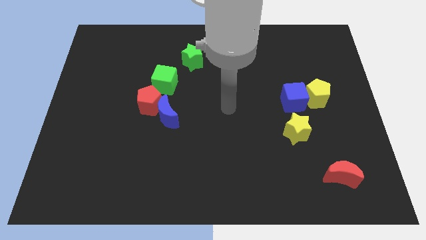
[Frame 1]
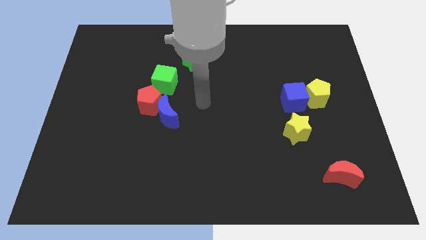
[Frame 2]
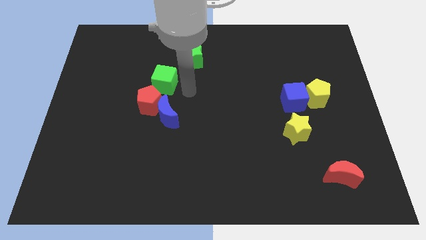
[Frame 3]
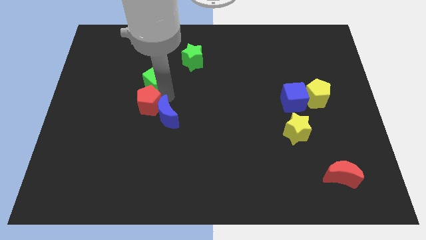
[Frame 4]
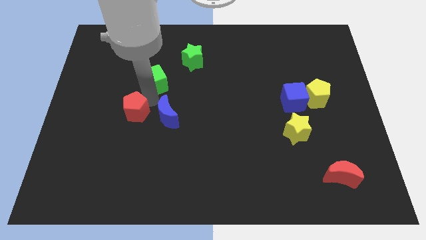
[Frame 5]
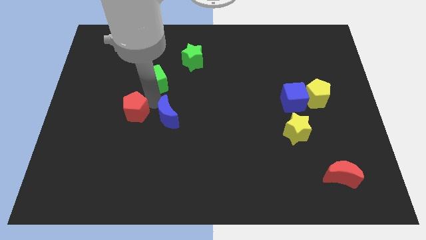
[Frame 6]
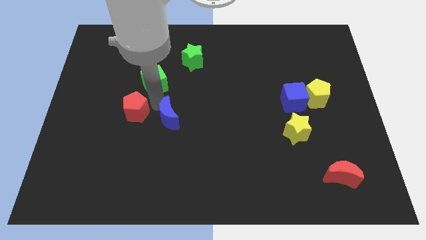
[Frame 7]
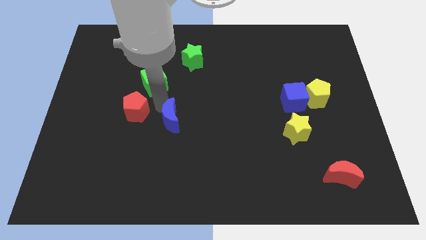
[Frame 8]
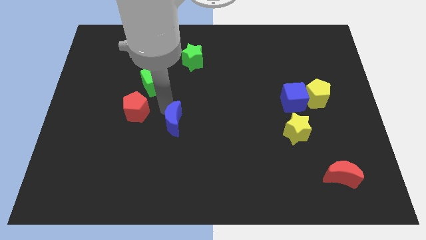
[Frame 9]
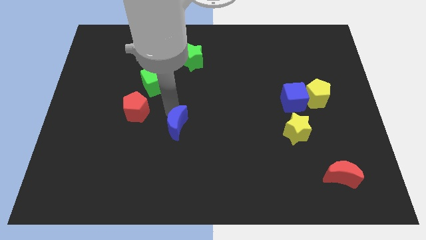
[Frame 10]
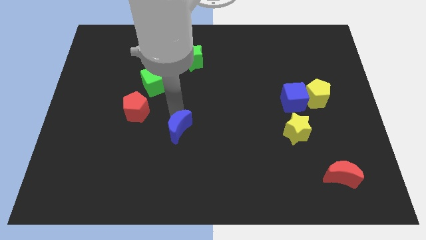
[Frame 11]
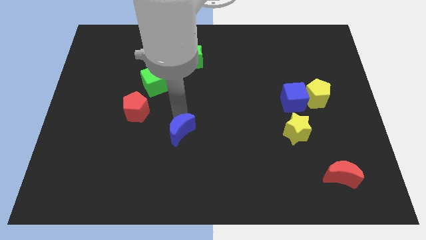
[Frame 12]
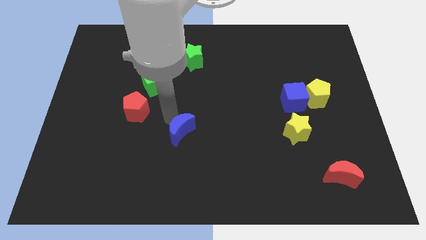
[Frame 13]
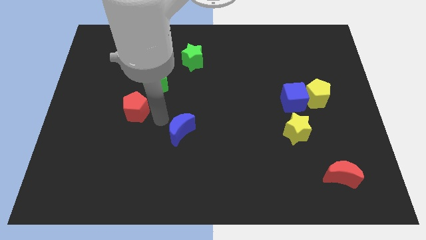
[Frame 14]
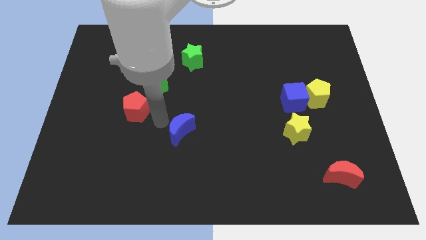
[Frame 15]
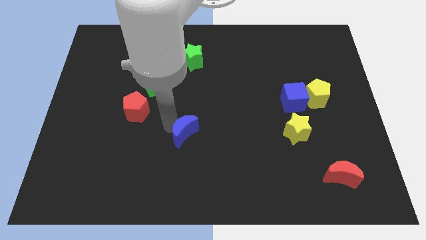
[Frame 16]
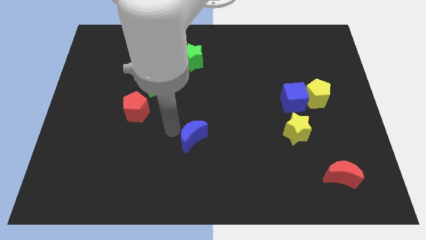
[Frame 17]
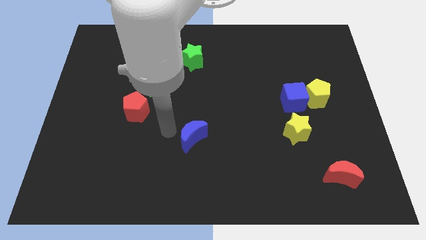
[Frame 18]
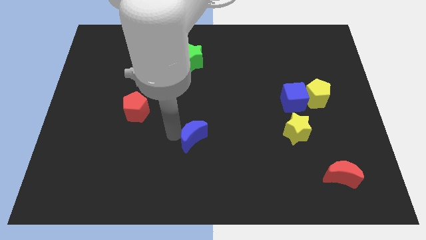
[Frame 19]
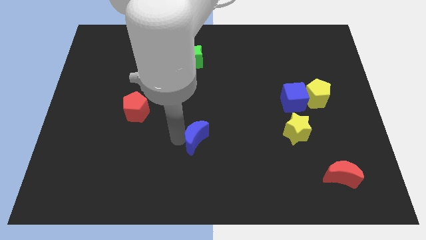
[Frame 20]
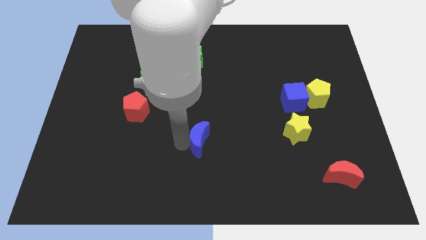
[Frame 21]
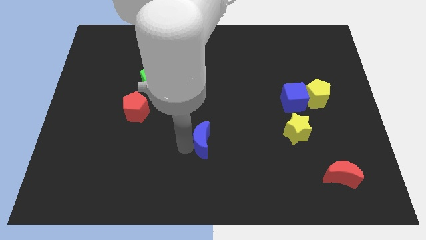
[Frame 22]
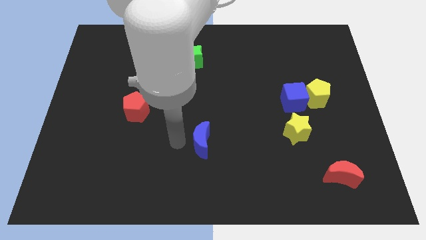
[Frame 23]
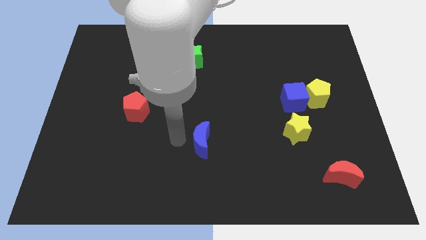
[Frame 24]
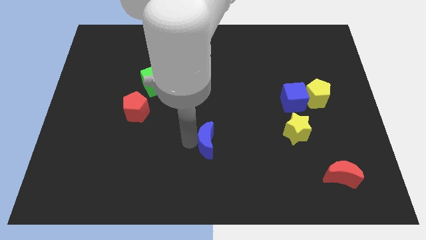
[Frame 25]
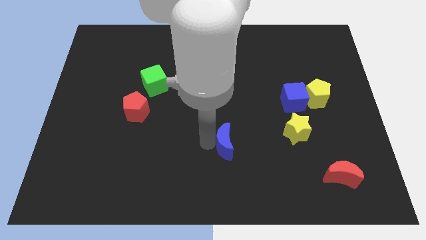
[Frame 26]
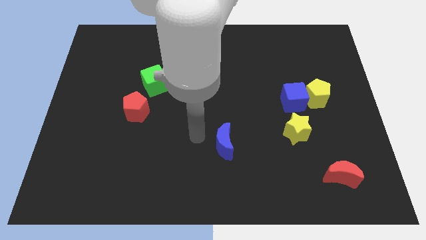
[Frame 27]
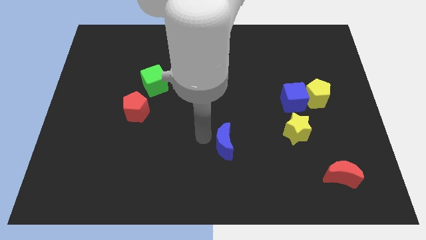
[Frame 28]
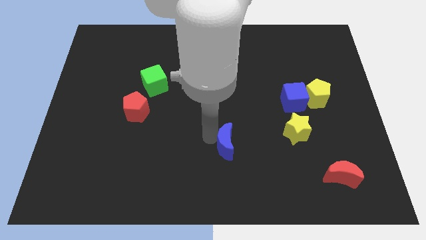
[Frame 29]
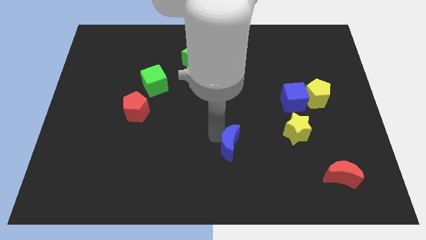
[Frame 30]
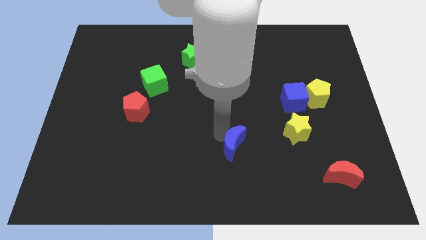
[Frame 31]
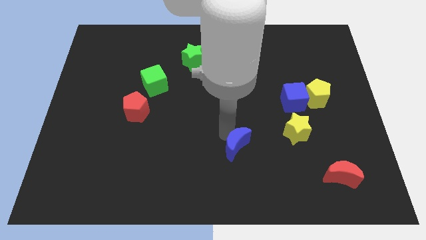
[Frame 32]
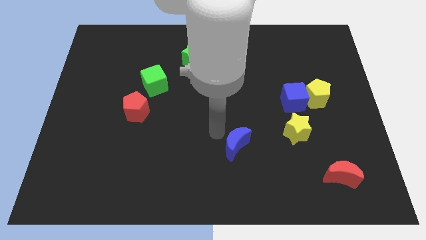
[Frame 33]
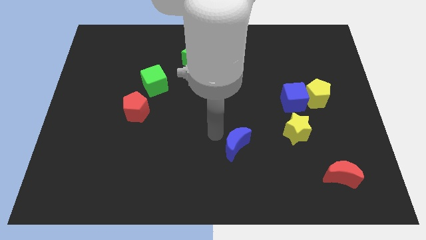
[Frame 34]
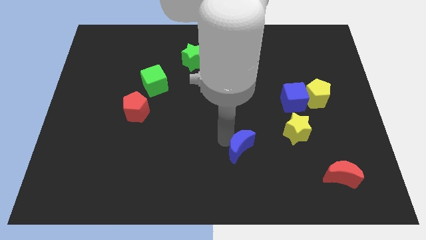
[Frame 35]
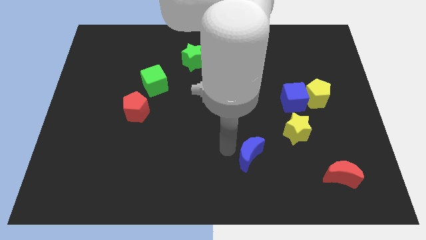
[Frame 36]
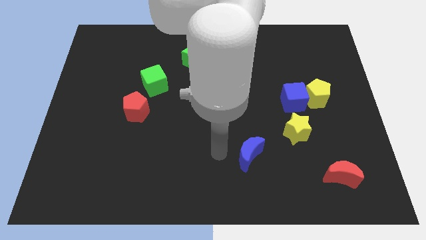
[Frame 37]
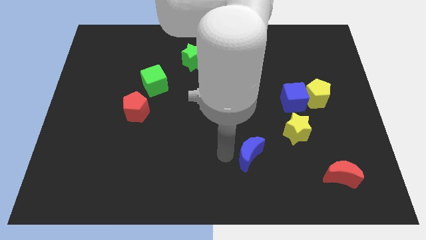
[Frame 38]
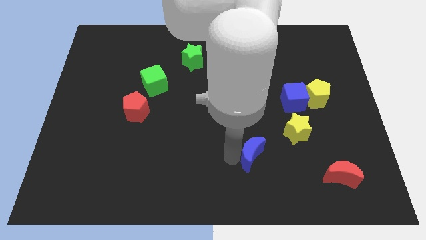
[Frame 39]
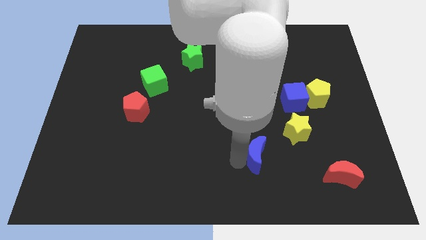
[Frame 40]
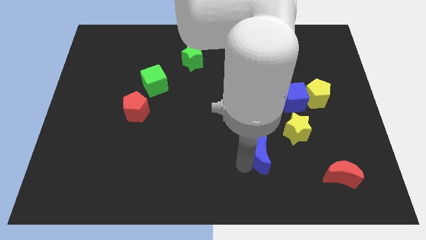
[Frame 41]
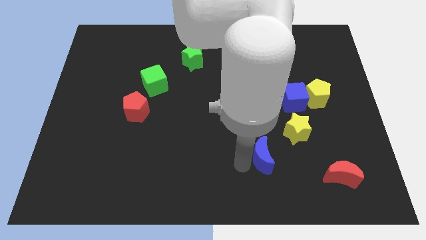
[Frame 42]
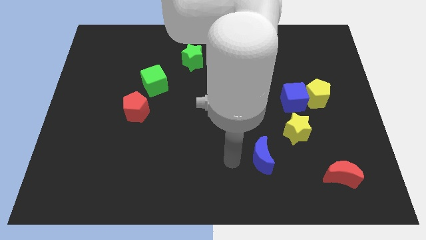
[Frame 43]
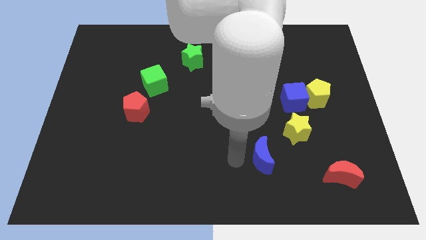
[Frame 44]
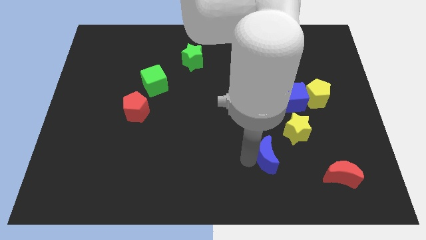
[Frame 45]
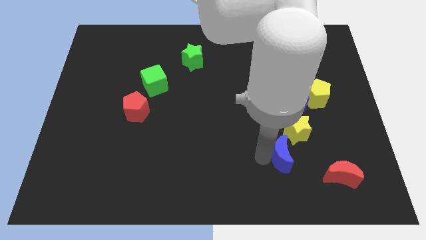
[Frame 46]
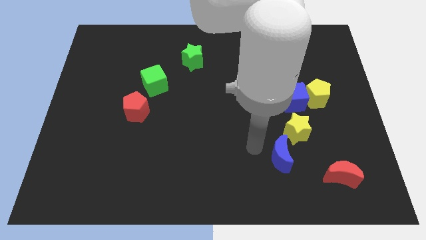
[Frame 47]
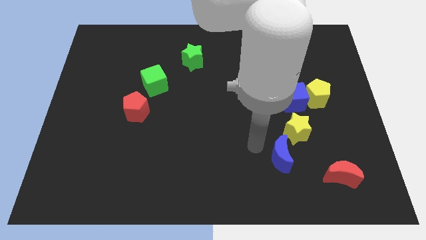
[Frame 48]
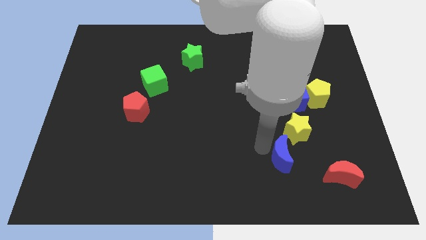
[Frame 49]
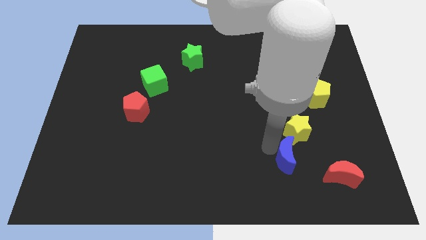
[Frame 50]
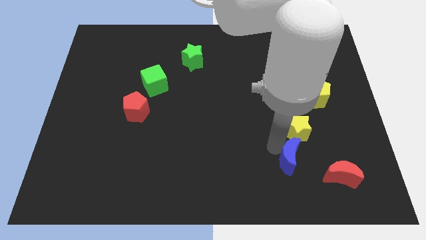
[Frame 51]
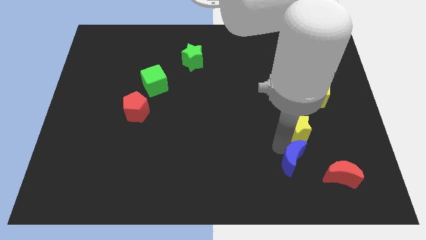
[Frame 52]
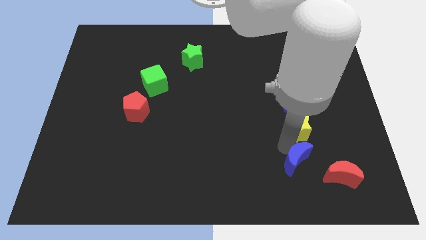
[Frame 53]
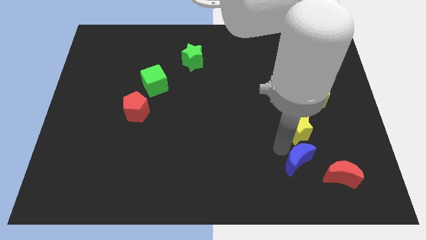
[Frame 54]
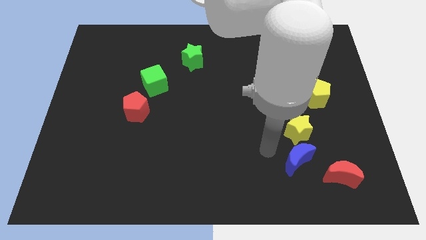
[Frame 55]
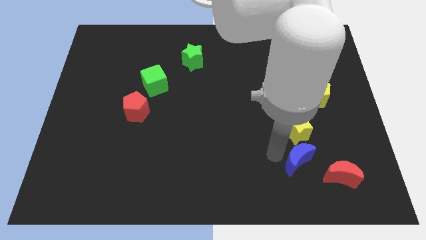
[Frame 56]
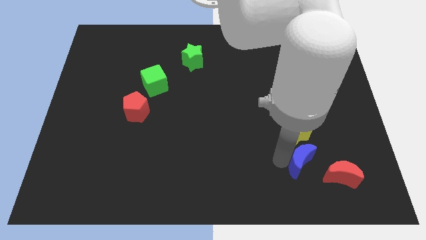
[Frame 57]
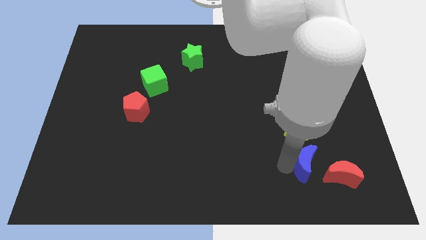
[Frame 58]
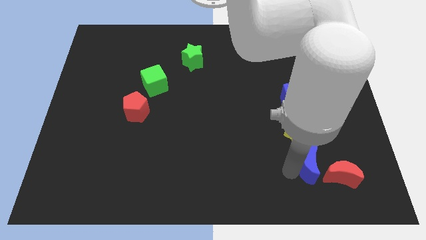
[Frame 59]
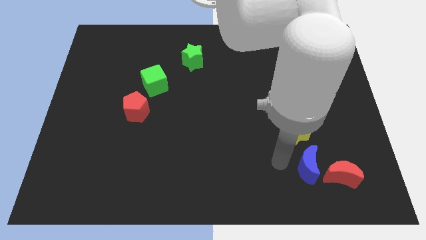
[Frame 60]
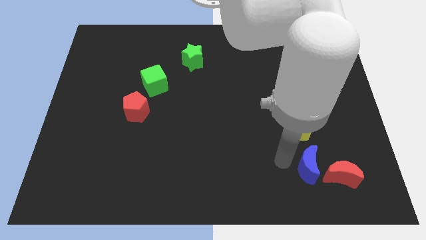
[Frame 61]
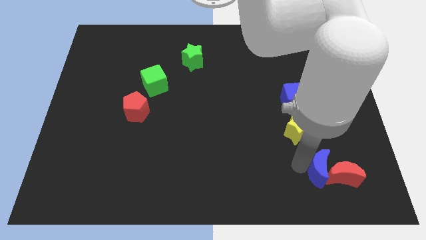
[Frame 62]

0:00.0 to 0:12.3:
push the blue moon towards the red moon

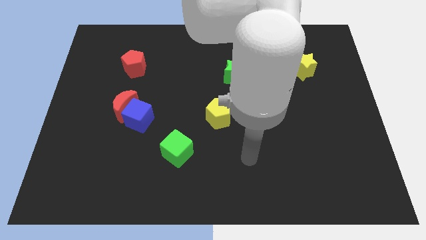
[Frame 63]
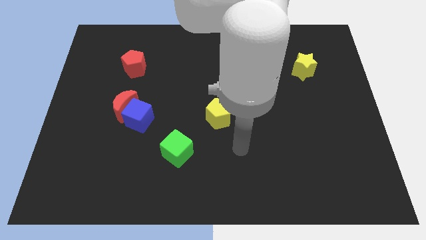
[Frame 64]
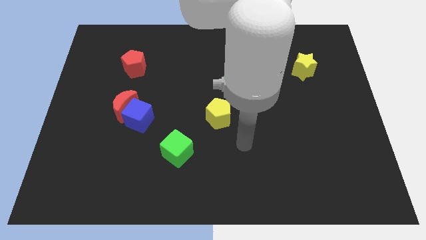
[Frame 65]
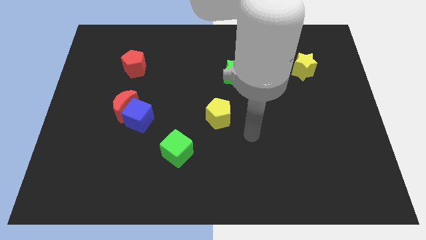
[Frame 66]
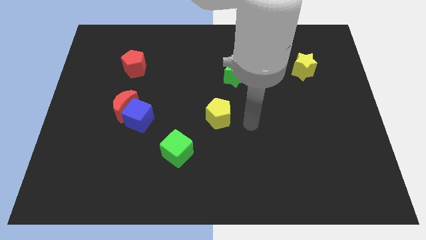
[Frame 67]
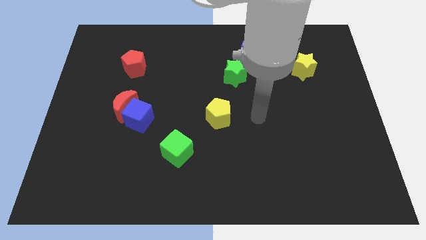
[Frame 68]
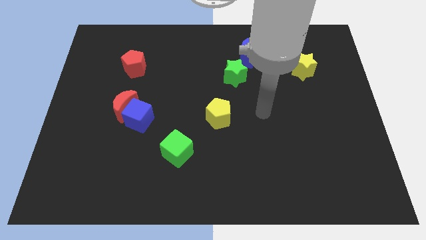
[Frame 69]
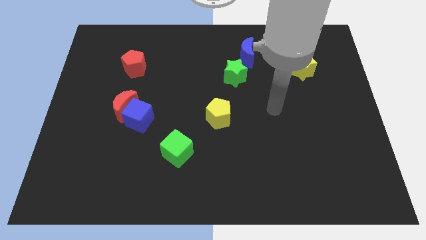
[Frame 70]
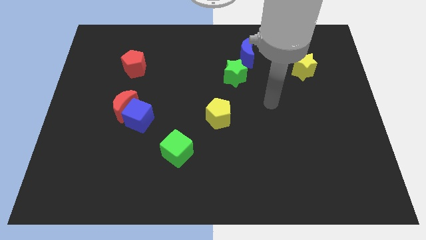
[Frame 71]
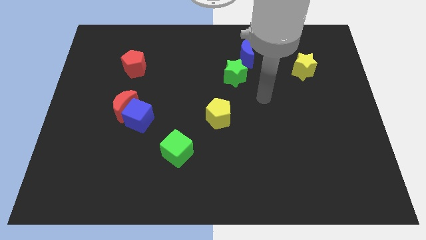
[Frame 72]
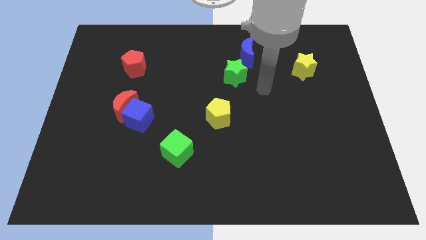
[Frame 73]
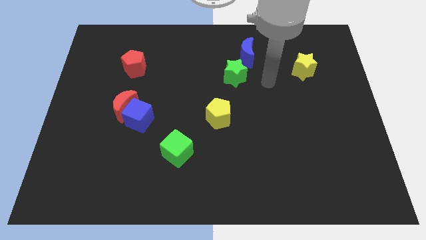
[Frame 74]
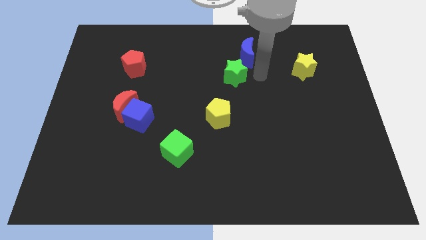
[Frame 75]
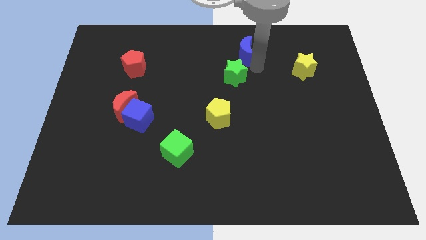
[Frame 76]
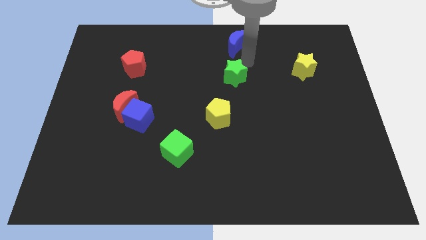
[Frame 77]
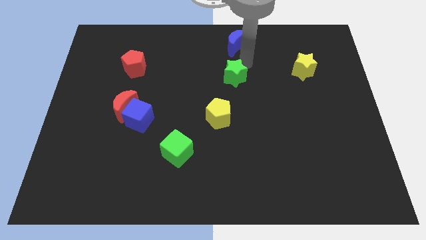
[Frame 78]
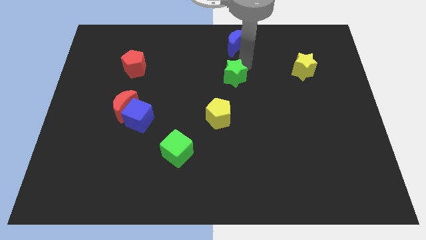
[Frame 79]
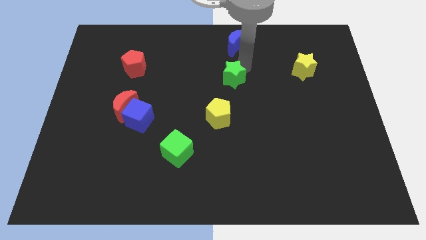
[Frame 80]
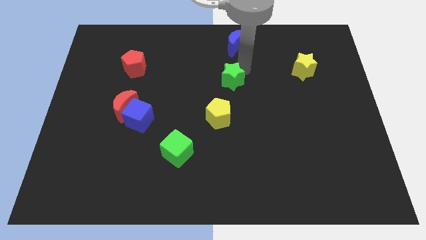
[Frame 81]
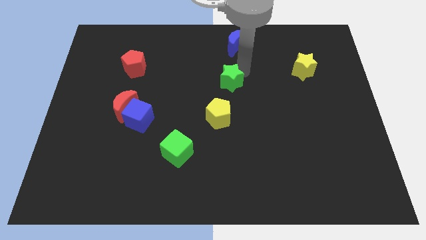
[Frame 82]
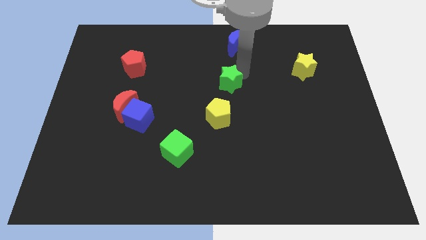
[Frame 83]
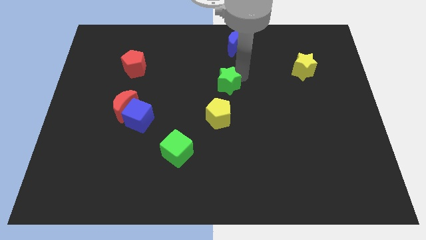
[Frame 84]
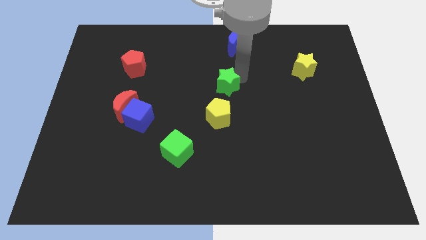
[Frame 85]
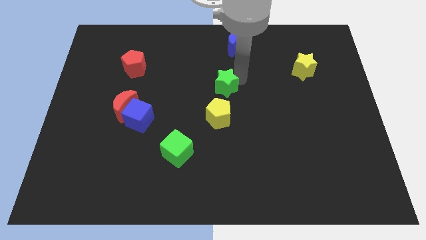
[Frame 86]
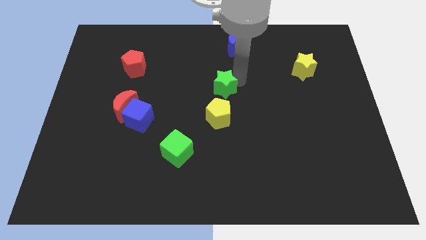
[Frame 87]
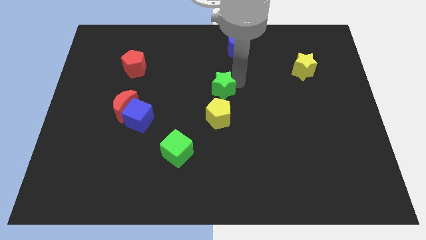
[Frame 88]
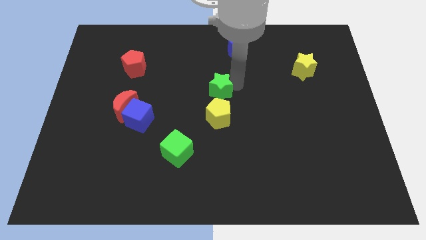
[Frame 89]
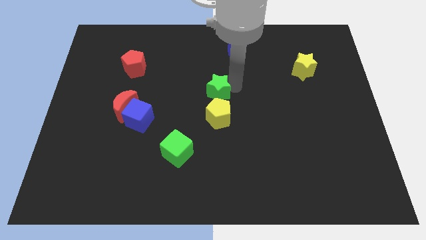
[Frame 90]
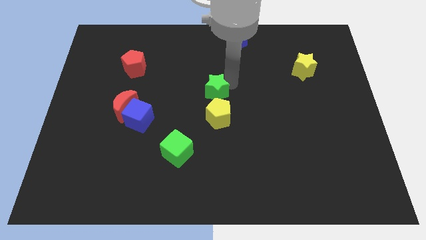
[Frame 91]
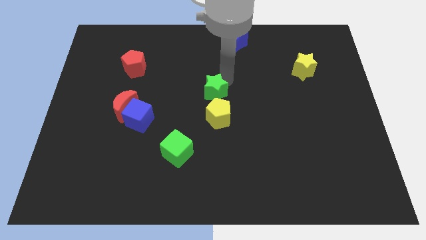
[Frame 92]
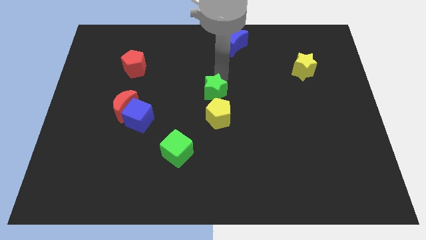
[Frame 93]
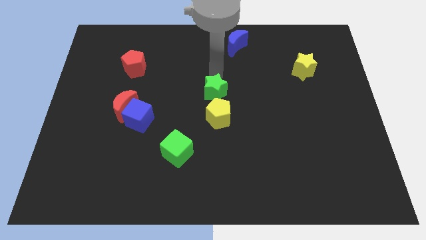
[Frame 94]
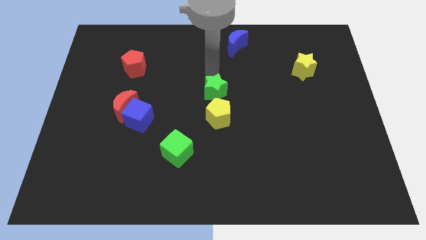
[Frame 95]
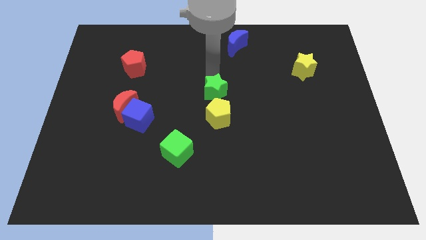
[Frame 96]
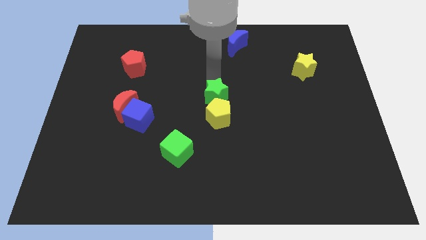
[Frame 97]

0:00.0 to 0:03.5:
move the green star next to the yellow pentagon
